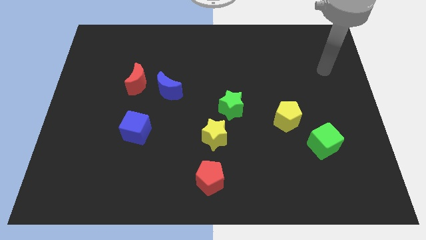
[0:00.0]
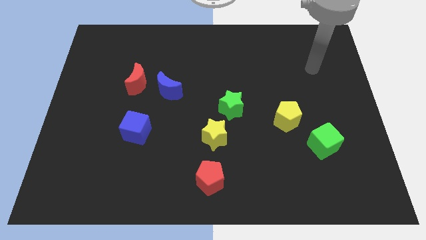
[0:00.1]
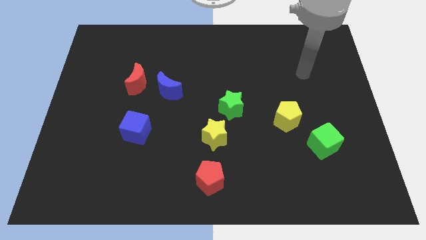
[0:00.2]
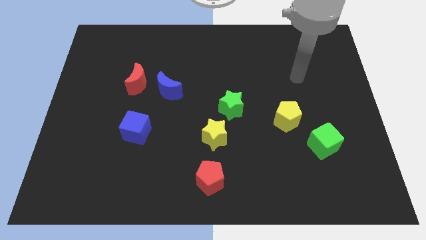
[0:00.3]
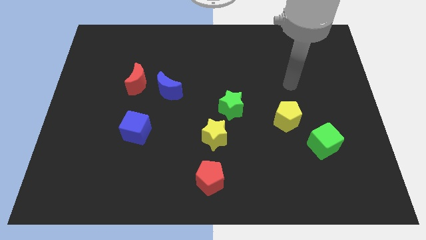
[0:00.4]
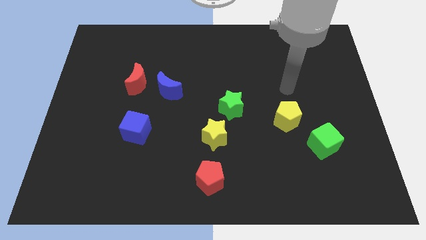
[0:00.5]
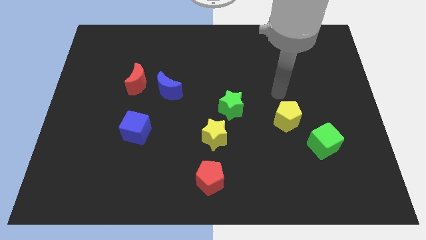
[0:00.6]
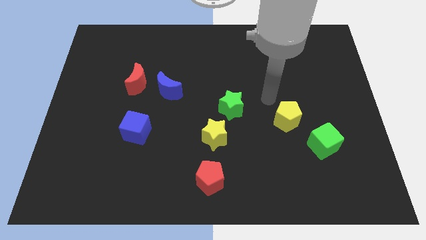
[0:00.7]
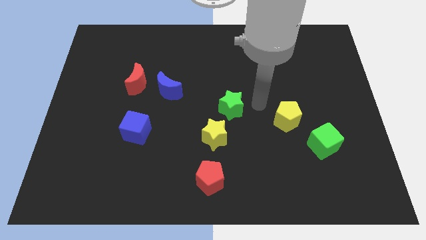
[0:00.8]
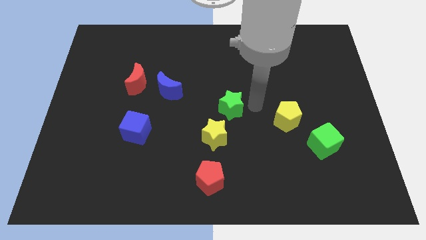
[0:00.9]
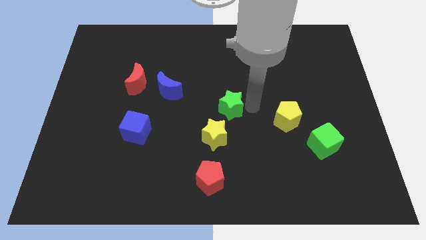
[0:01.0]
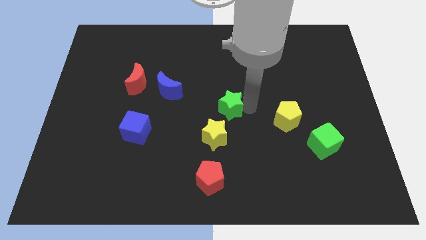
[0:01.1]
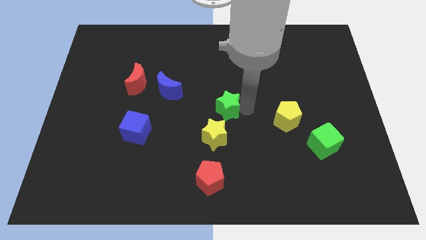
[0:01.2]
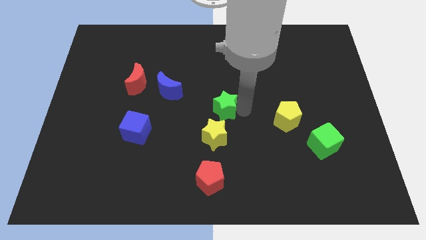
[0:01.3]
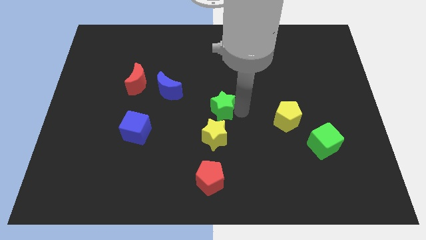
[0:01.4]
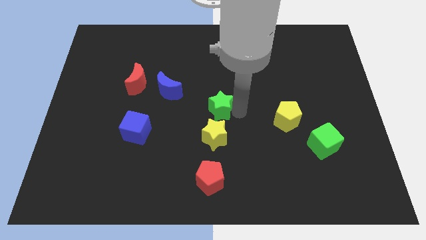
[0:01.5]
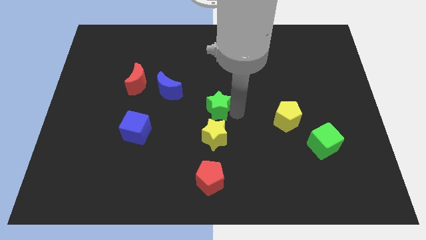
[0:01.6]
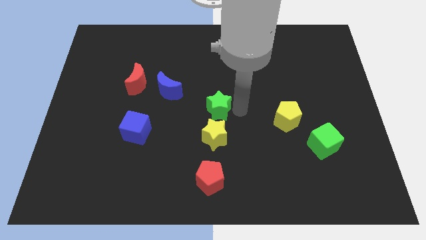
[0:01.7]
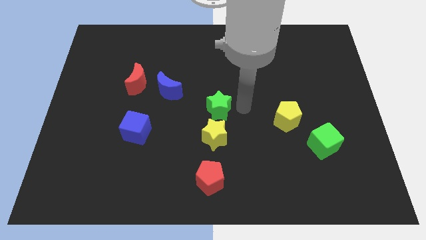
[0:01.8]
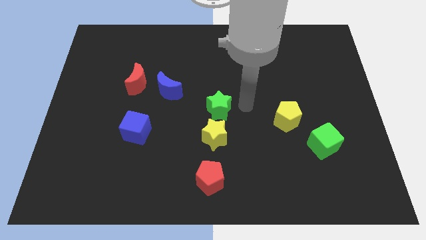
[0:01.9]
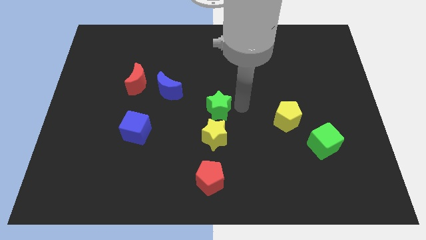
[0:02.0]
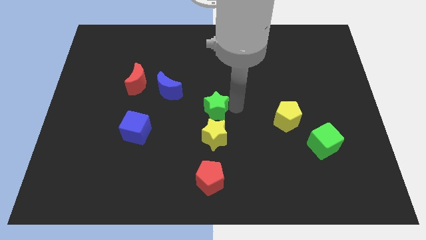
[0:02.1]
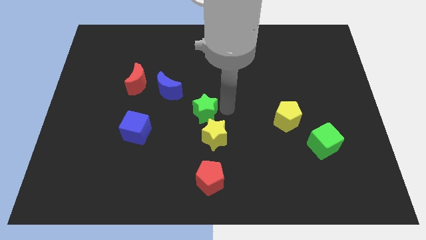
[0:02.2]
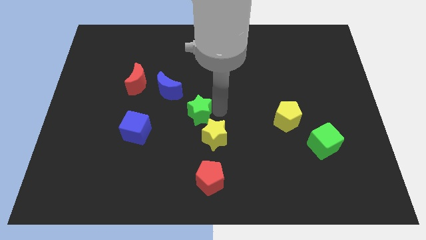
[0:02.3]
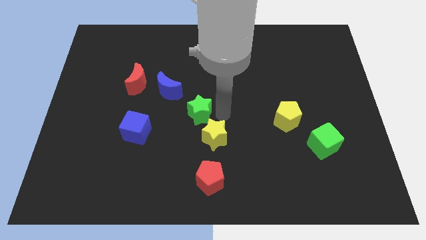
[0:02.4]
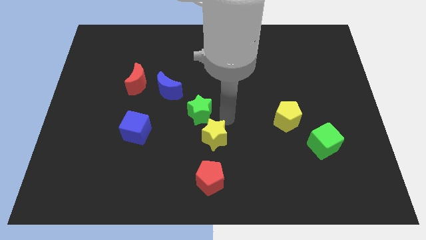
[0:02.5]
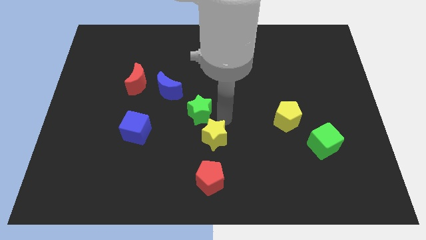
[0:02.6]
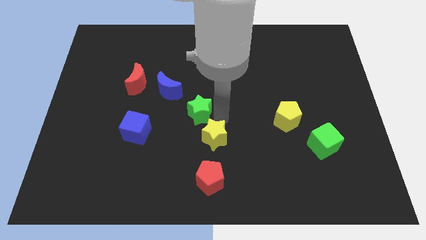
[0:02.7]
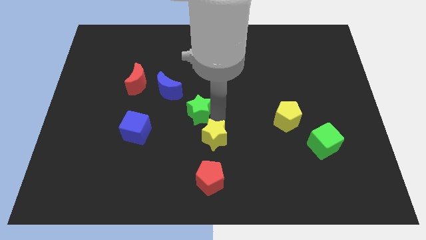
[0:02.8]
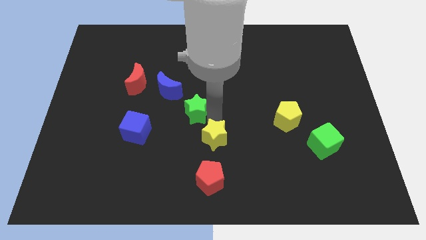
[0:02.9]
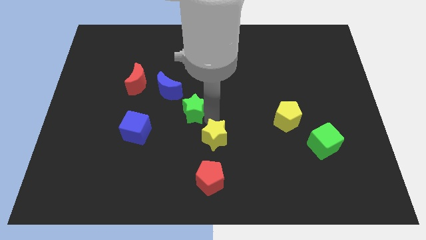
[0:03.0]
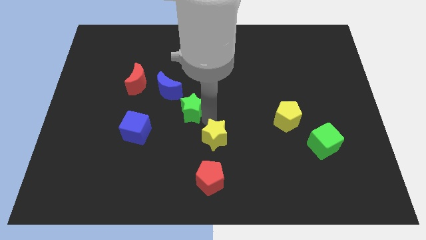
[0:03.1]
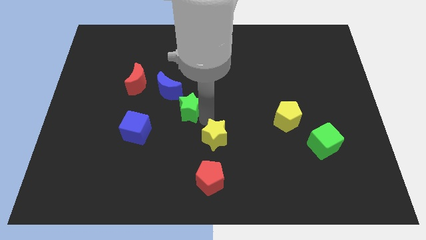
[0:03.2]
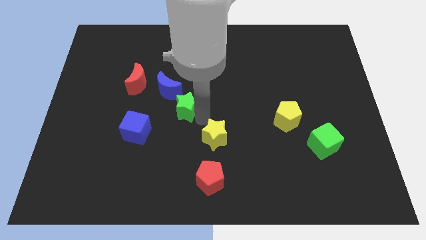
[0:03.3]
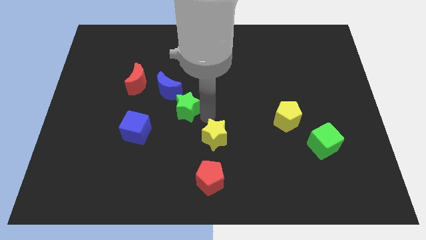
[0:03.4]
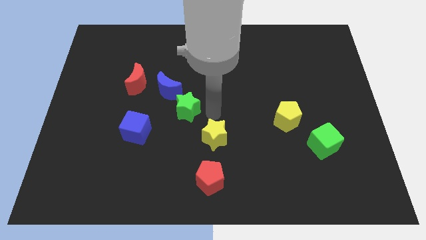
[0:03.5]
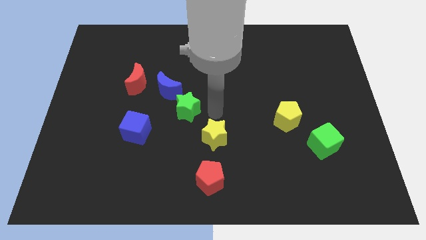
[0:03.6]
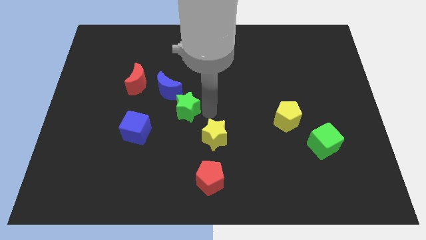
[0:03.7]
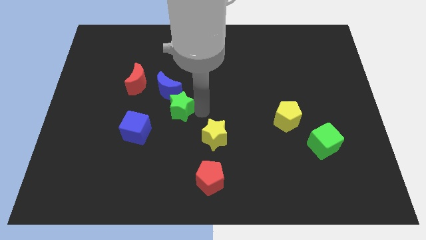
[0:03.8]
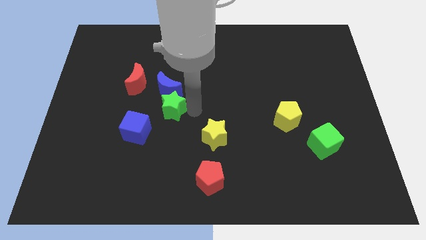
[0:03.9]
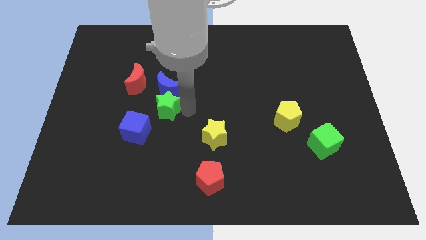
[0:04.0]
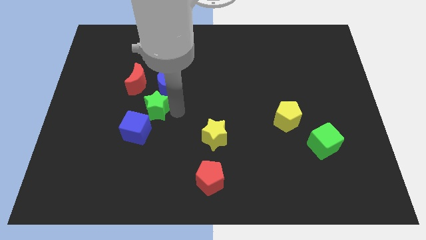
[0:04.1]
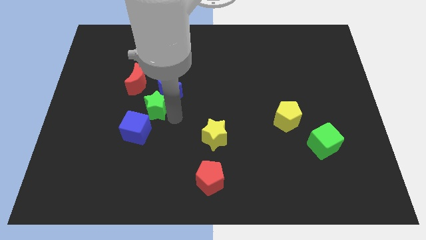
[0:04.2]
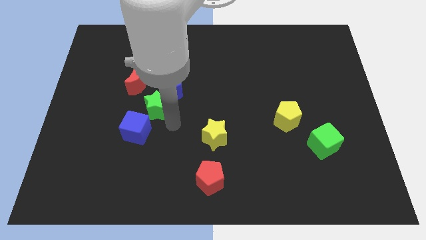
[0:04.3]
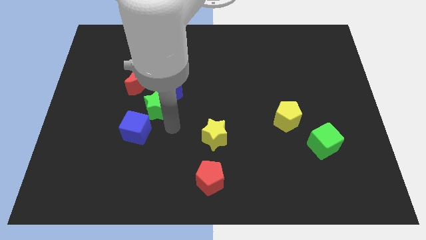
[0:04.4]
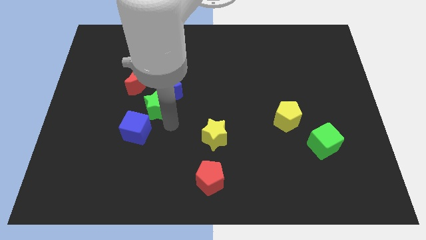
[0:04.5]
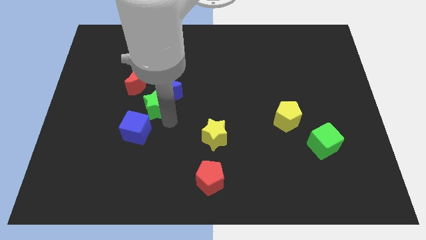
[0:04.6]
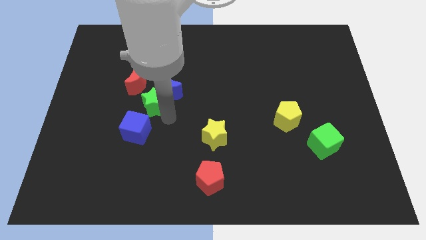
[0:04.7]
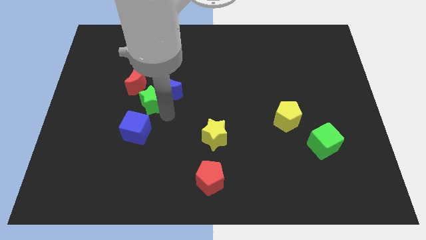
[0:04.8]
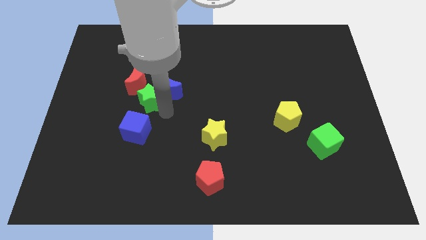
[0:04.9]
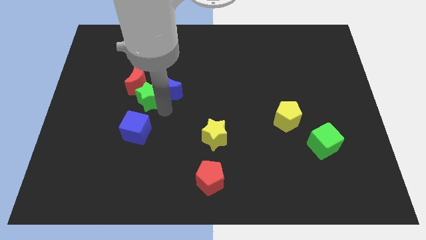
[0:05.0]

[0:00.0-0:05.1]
push the green star close to the red moon

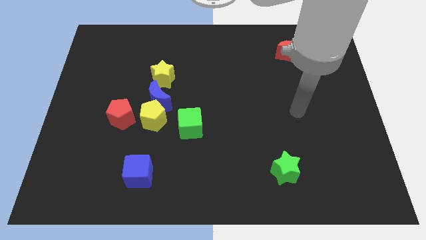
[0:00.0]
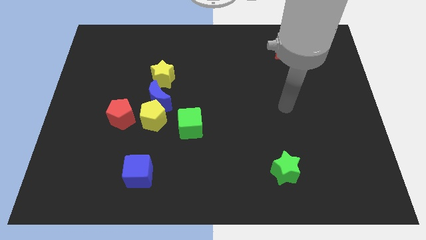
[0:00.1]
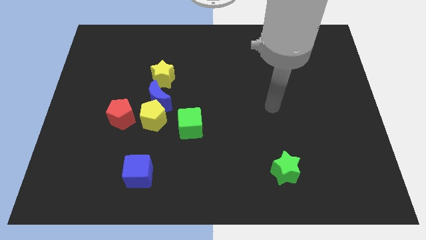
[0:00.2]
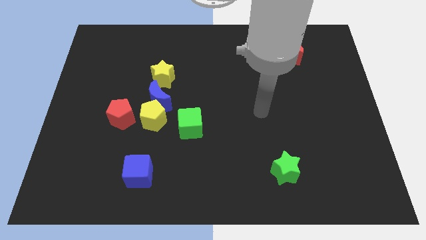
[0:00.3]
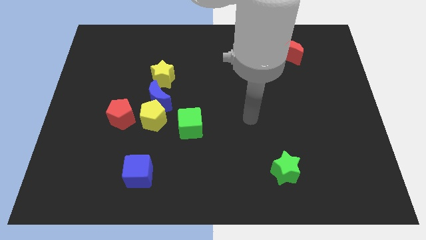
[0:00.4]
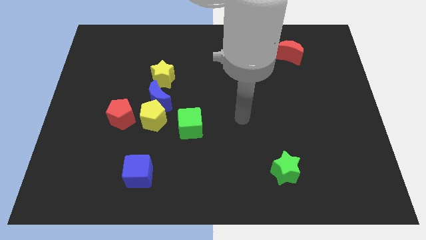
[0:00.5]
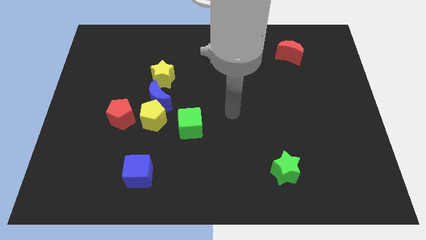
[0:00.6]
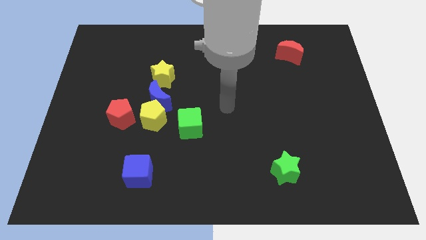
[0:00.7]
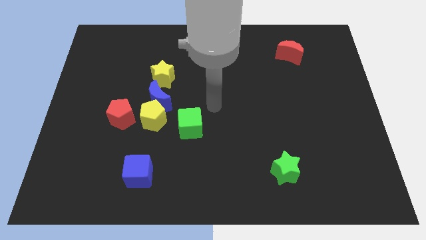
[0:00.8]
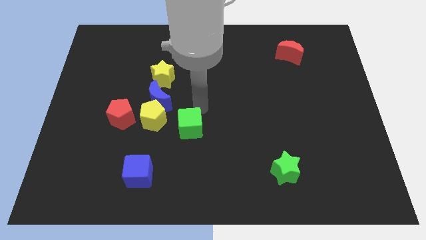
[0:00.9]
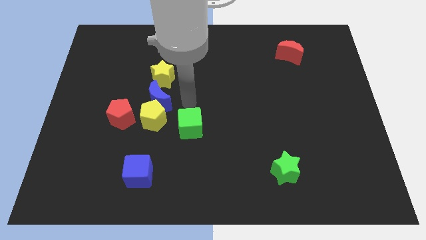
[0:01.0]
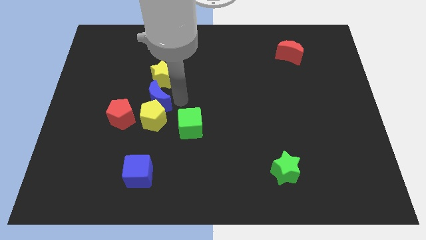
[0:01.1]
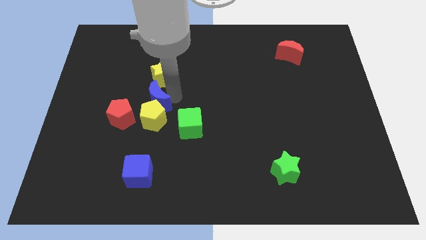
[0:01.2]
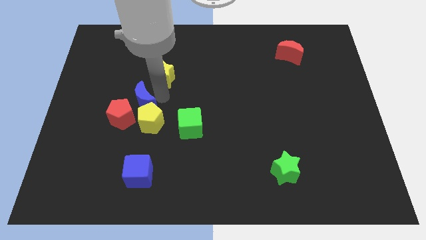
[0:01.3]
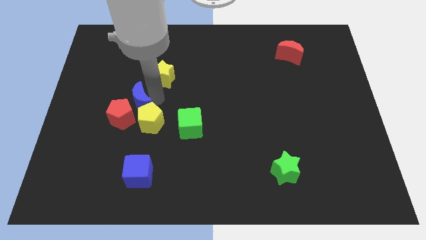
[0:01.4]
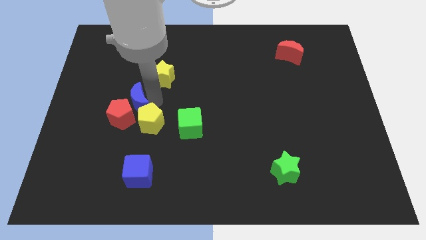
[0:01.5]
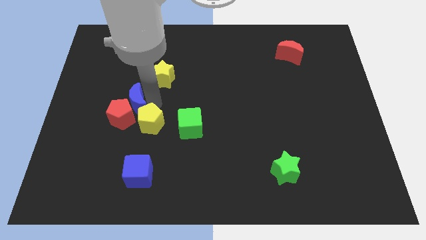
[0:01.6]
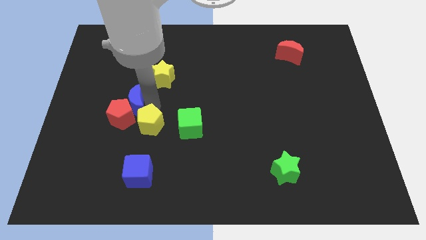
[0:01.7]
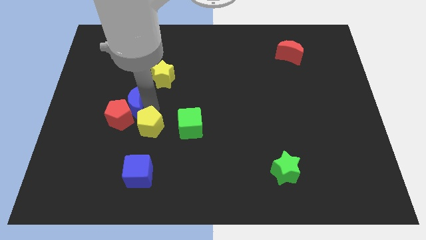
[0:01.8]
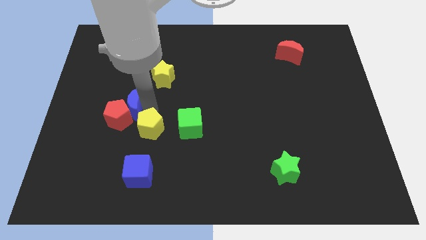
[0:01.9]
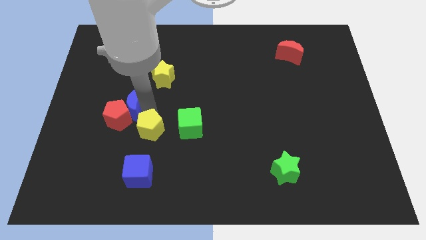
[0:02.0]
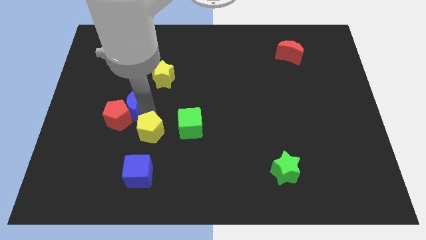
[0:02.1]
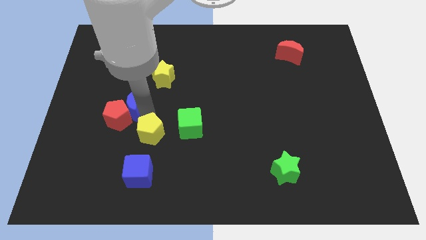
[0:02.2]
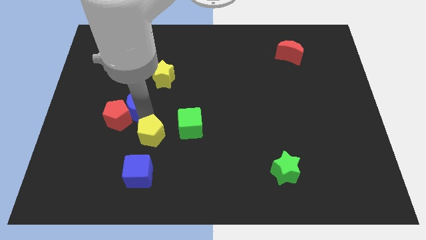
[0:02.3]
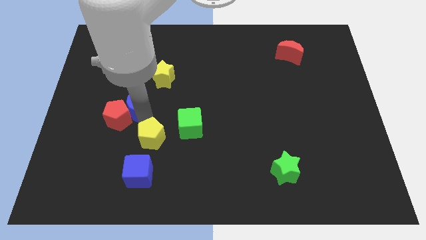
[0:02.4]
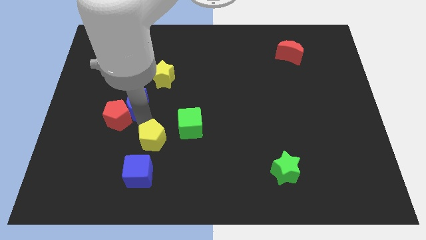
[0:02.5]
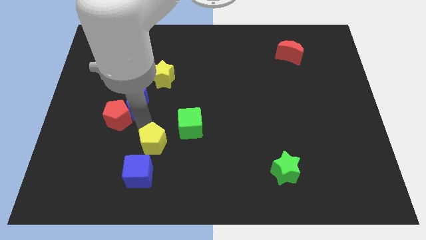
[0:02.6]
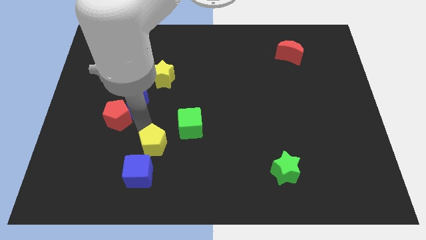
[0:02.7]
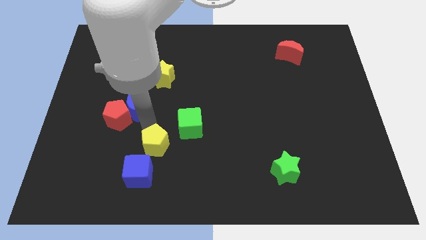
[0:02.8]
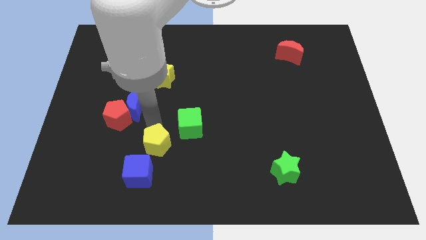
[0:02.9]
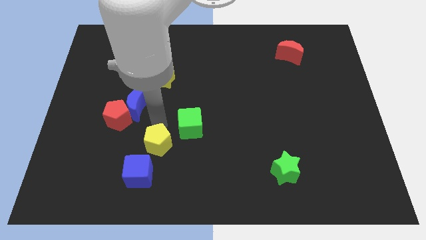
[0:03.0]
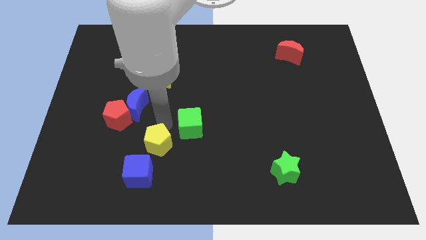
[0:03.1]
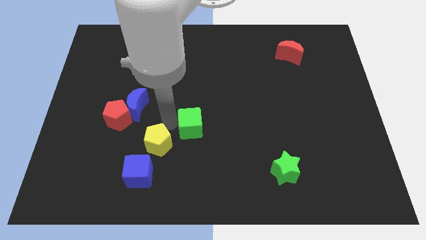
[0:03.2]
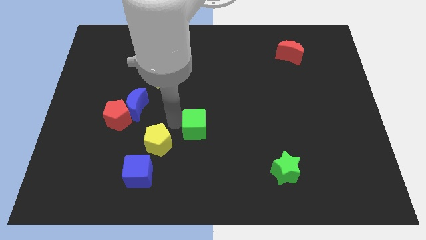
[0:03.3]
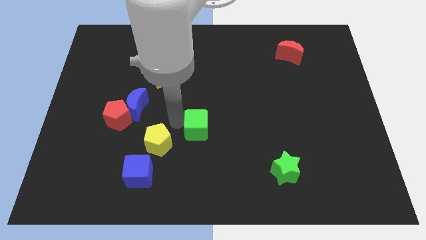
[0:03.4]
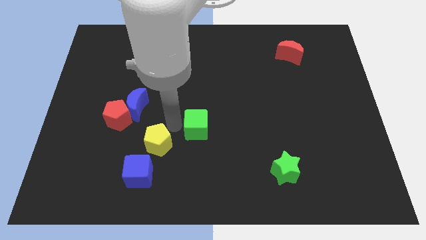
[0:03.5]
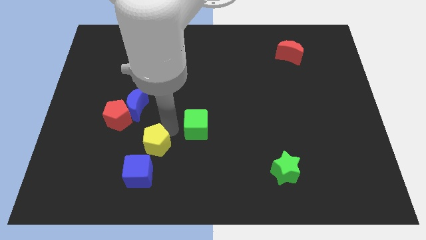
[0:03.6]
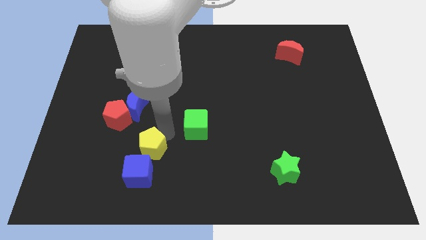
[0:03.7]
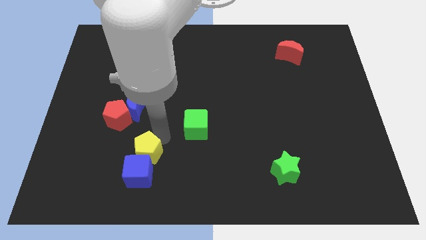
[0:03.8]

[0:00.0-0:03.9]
push the yellow pentagon close to the blue cube
